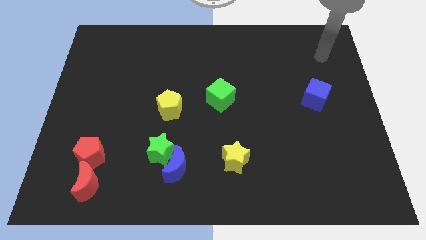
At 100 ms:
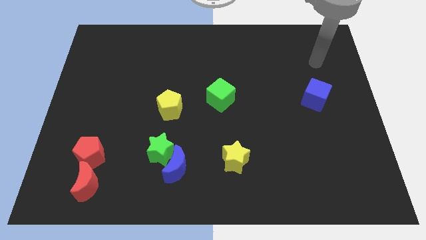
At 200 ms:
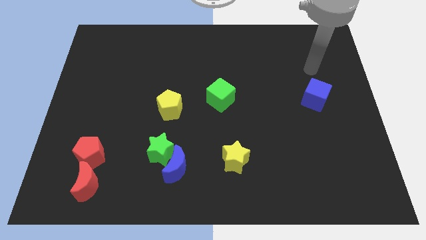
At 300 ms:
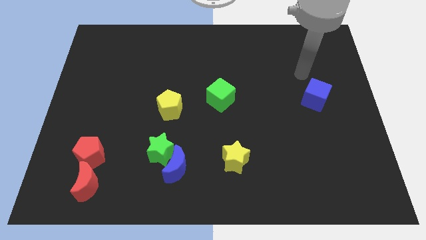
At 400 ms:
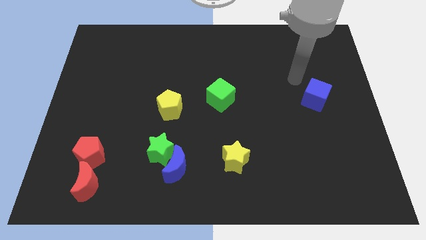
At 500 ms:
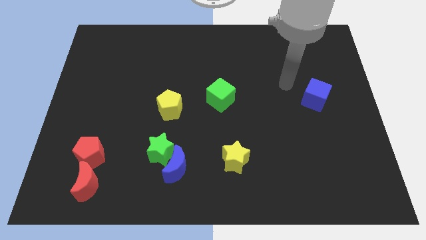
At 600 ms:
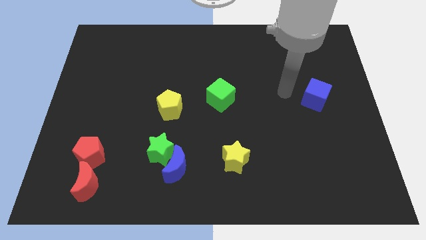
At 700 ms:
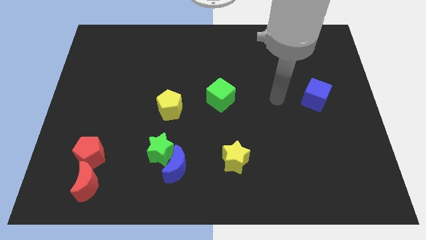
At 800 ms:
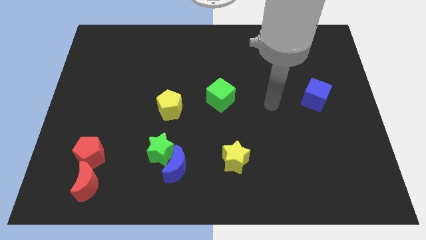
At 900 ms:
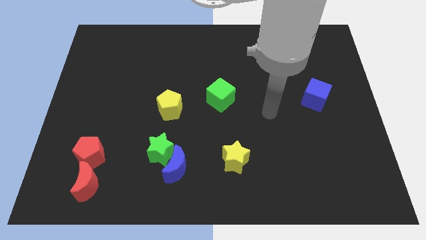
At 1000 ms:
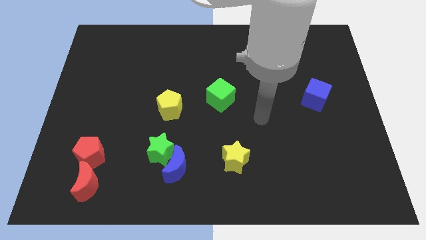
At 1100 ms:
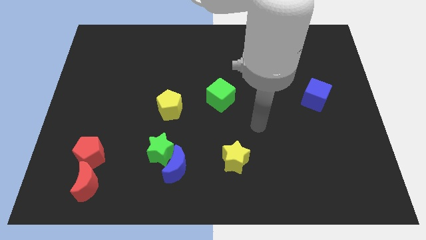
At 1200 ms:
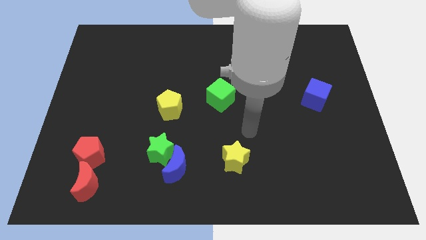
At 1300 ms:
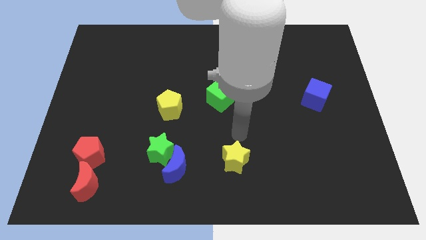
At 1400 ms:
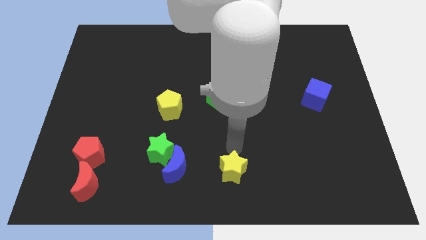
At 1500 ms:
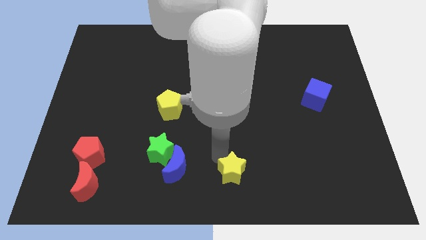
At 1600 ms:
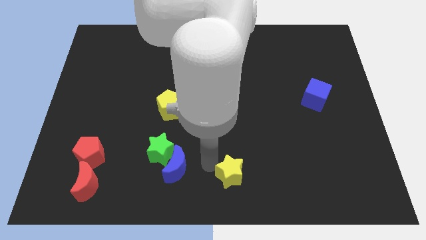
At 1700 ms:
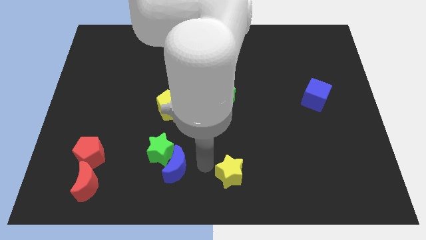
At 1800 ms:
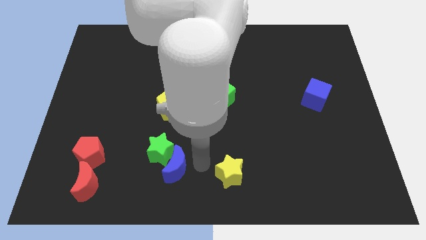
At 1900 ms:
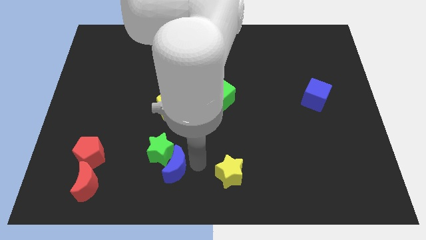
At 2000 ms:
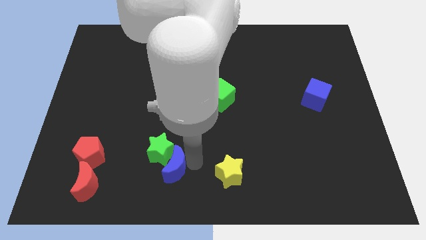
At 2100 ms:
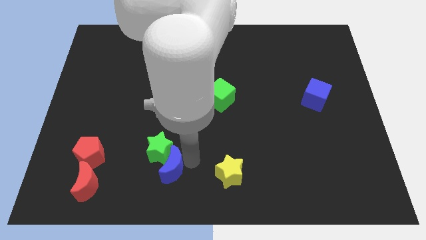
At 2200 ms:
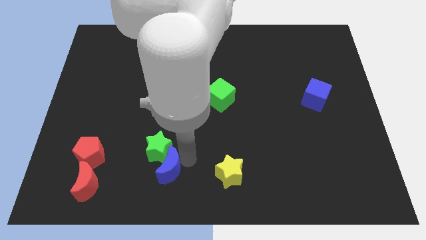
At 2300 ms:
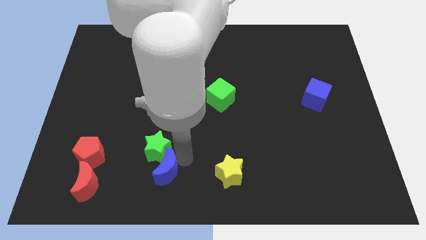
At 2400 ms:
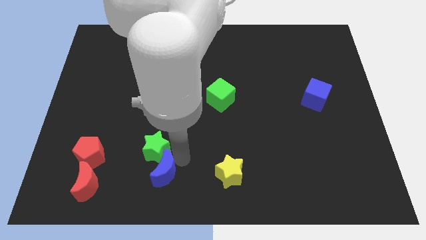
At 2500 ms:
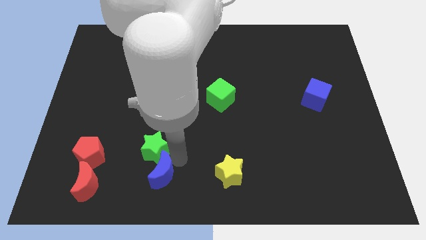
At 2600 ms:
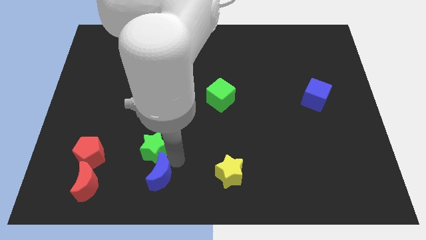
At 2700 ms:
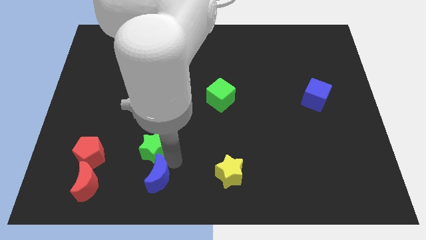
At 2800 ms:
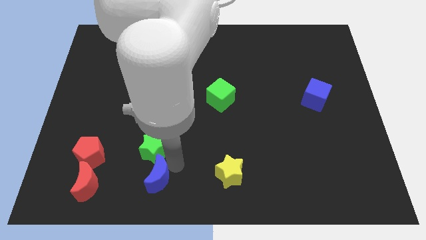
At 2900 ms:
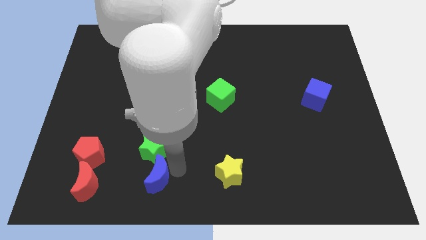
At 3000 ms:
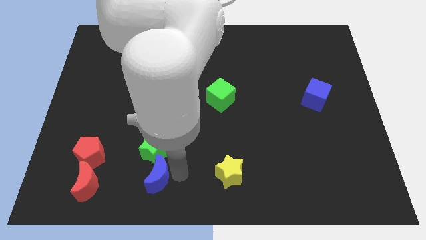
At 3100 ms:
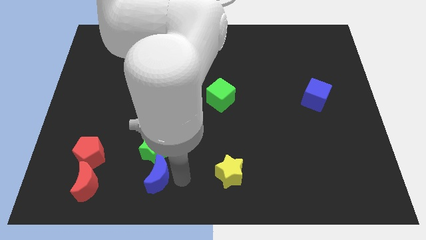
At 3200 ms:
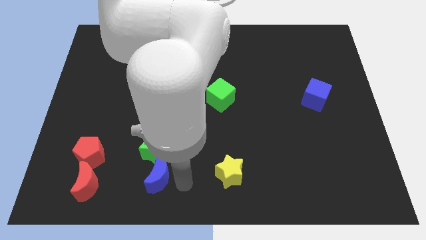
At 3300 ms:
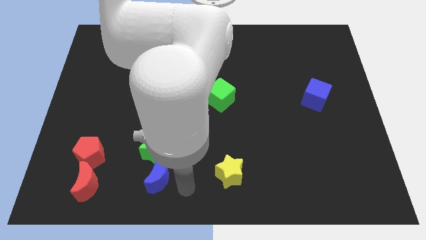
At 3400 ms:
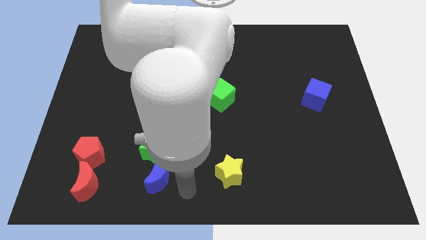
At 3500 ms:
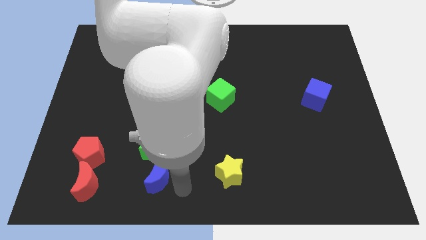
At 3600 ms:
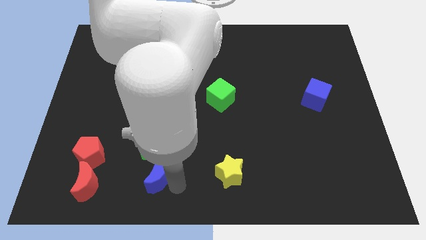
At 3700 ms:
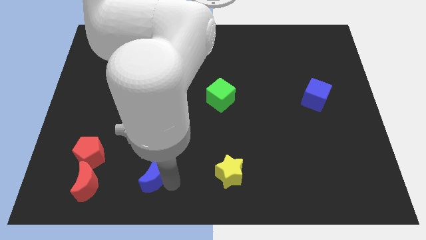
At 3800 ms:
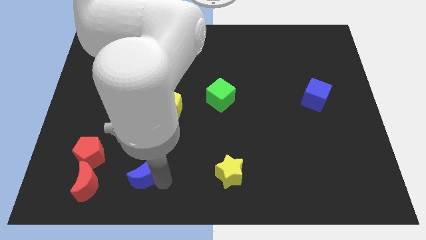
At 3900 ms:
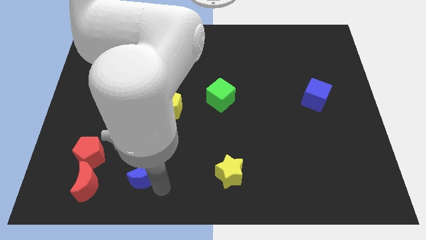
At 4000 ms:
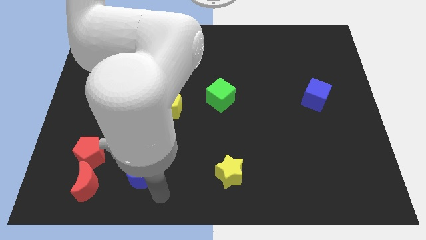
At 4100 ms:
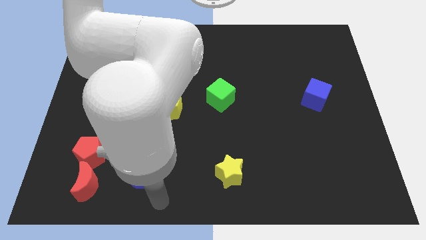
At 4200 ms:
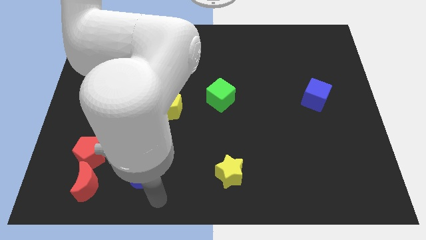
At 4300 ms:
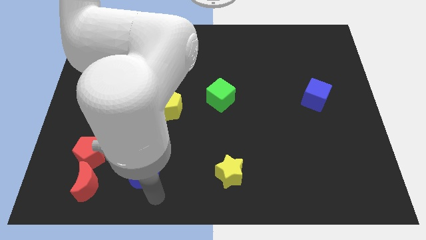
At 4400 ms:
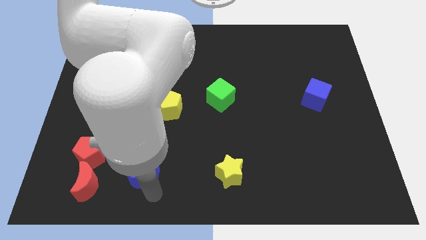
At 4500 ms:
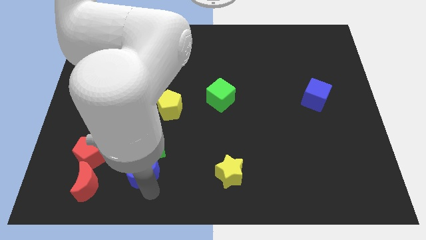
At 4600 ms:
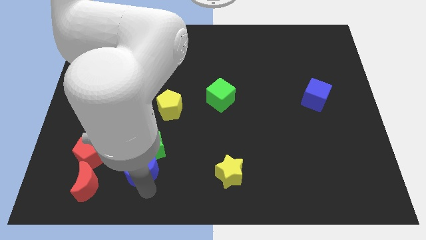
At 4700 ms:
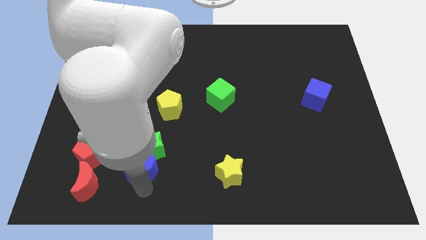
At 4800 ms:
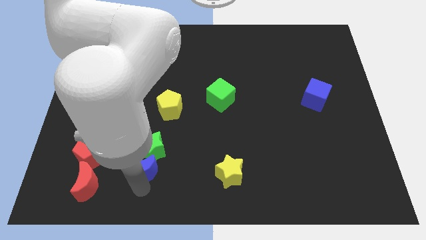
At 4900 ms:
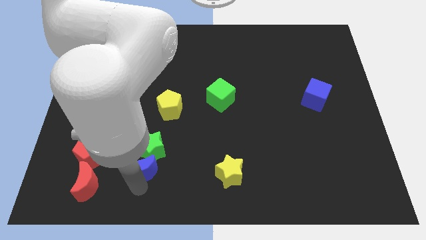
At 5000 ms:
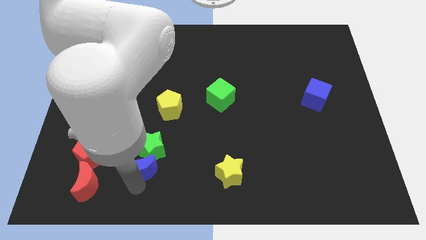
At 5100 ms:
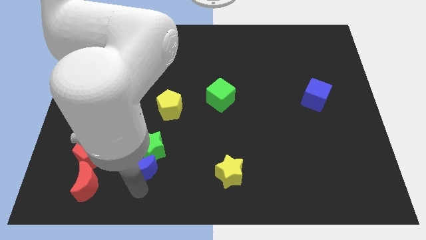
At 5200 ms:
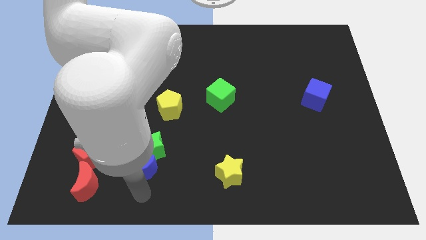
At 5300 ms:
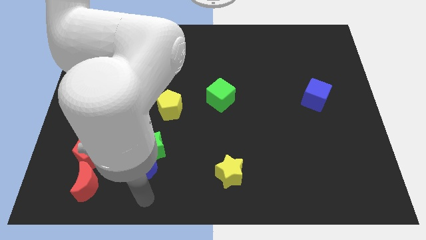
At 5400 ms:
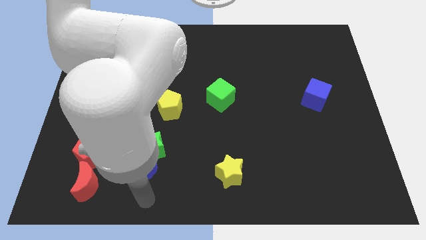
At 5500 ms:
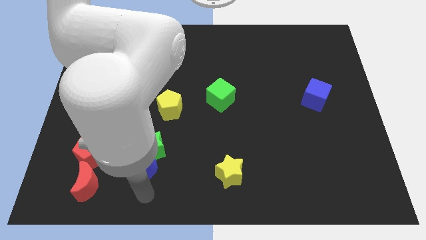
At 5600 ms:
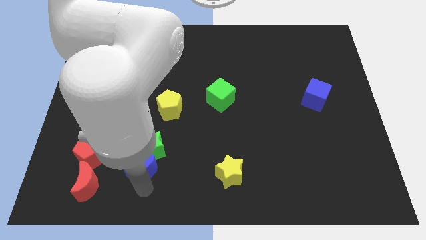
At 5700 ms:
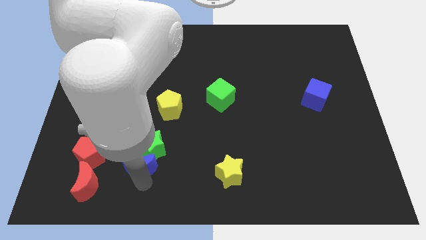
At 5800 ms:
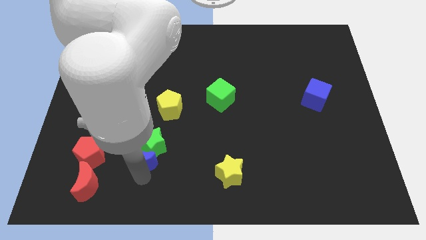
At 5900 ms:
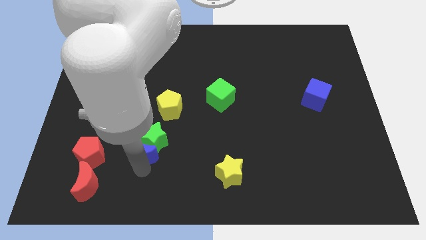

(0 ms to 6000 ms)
move the blue moon a bit diagonally upwards and to the left

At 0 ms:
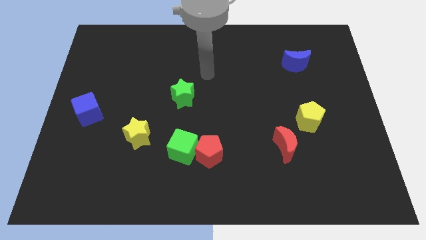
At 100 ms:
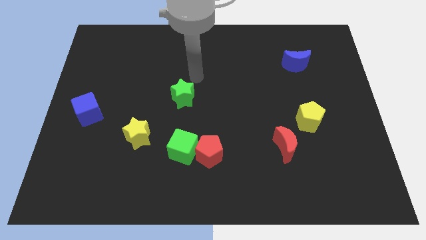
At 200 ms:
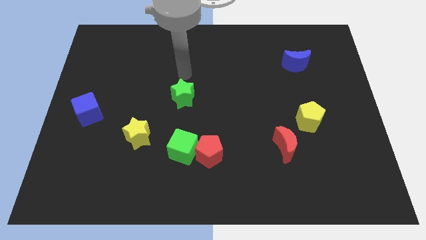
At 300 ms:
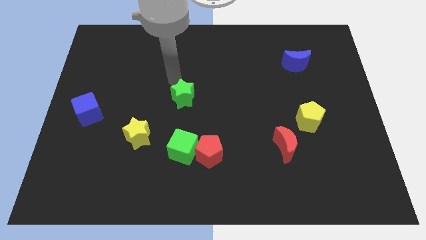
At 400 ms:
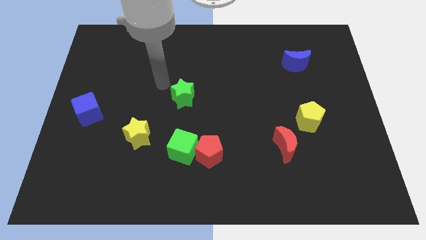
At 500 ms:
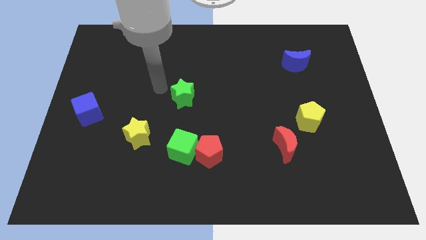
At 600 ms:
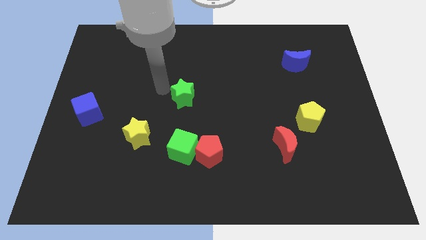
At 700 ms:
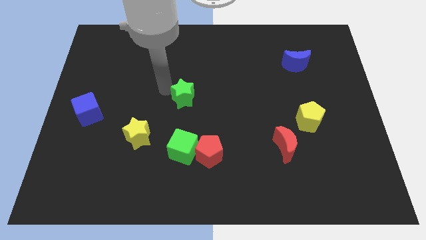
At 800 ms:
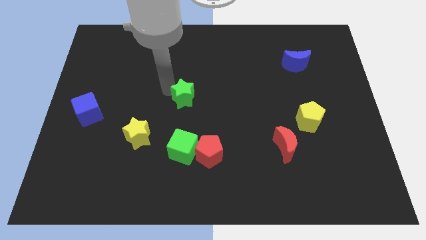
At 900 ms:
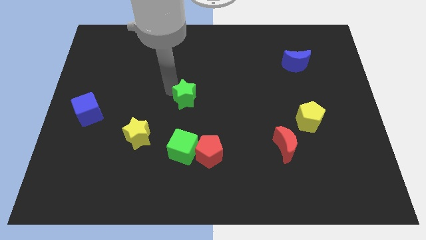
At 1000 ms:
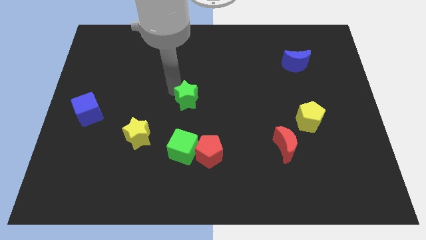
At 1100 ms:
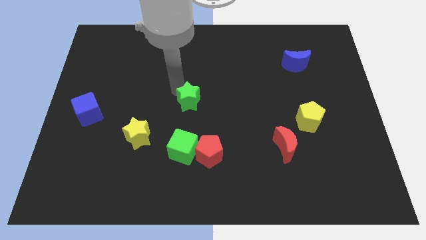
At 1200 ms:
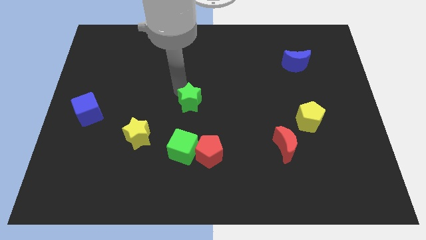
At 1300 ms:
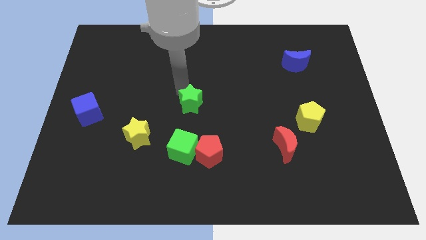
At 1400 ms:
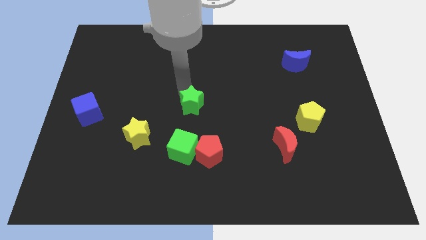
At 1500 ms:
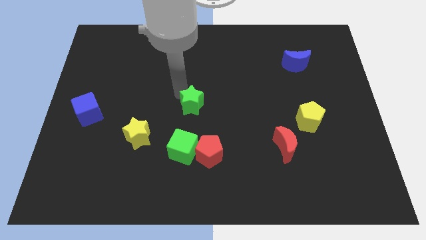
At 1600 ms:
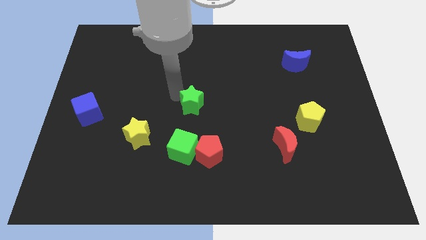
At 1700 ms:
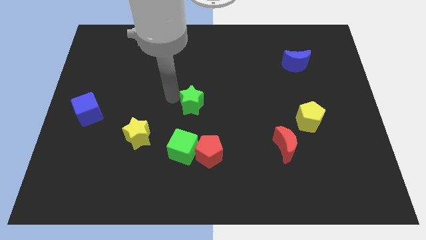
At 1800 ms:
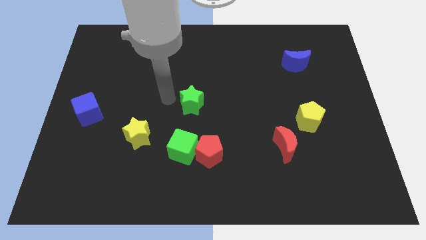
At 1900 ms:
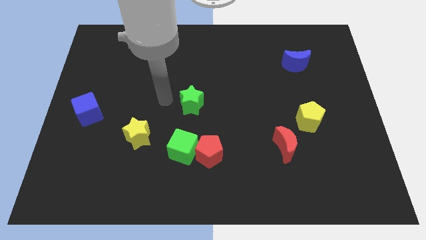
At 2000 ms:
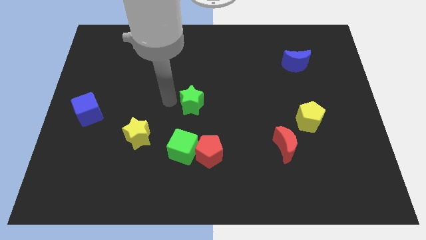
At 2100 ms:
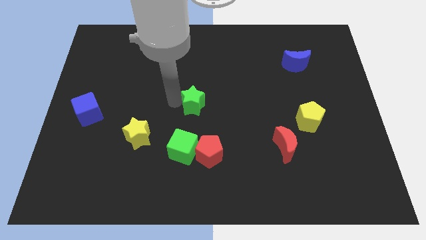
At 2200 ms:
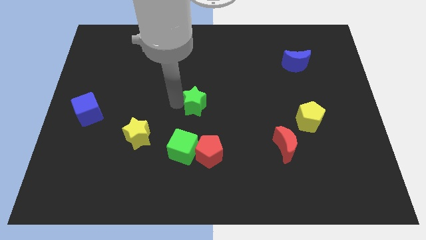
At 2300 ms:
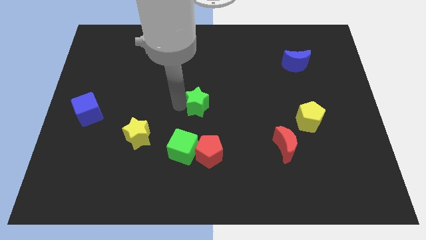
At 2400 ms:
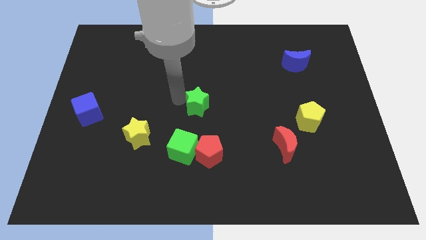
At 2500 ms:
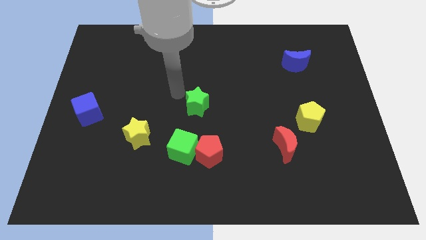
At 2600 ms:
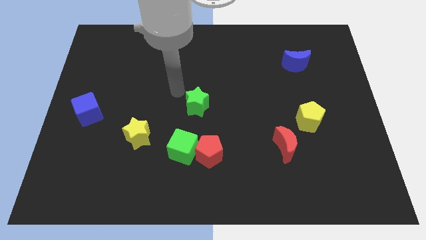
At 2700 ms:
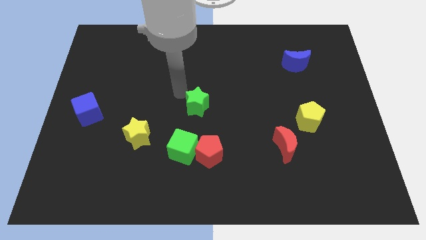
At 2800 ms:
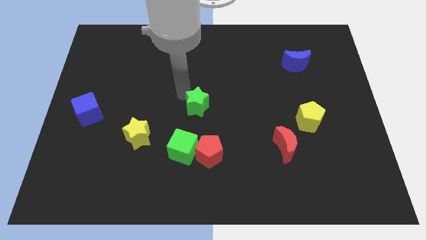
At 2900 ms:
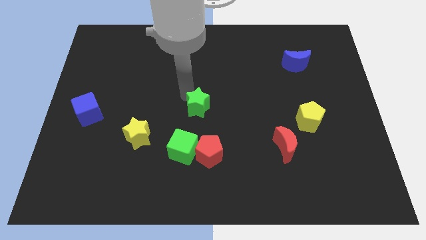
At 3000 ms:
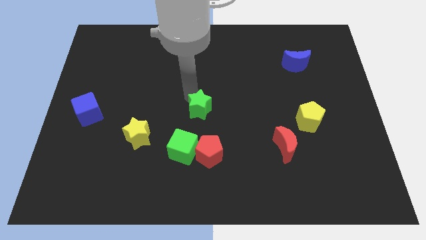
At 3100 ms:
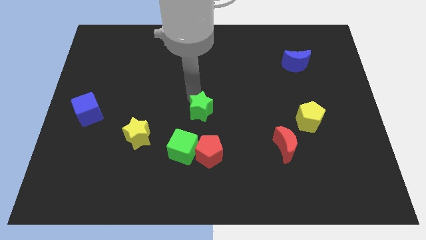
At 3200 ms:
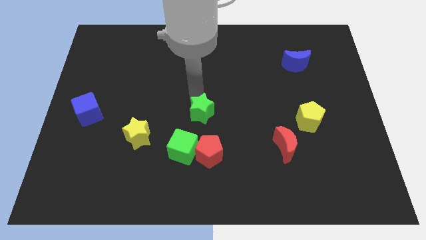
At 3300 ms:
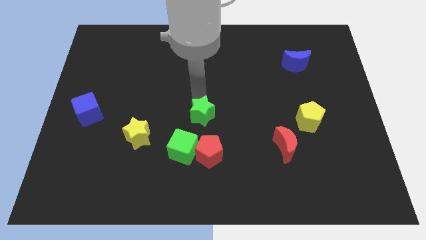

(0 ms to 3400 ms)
move the green star down and to the right diagonally slightly
